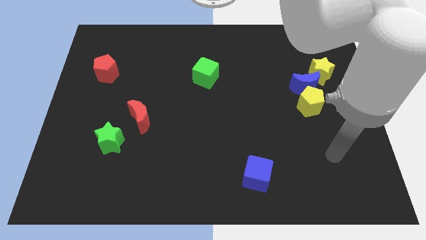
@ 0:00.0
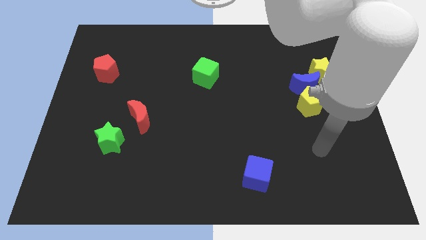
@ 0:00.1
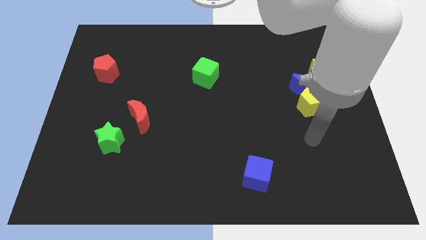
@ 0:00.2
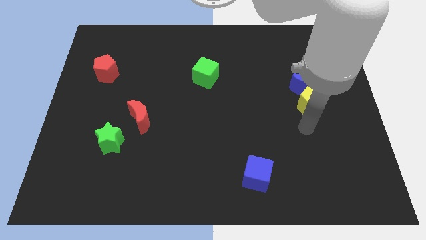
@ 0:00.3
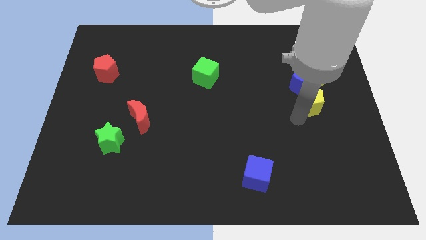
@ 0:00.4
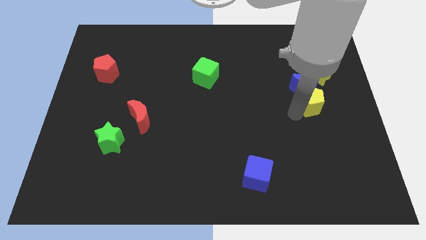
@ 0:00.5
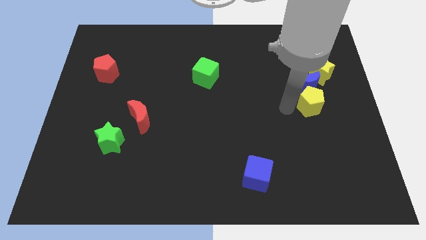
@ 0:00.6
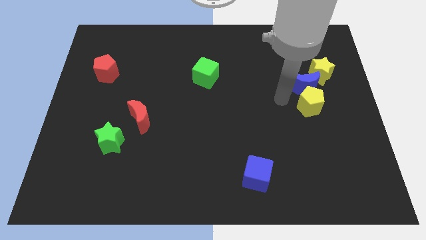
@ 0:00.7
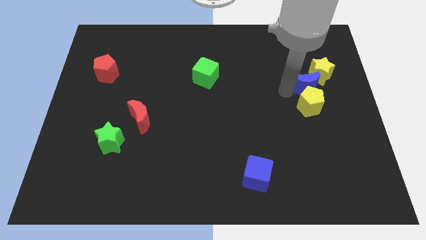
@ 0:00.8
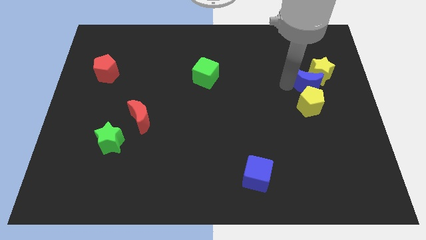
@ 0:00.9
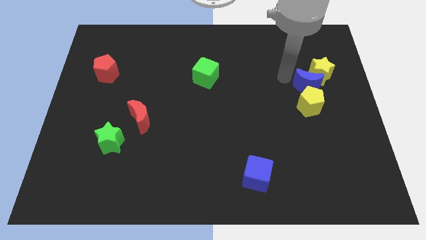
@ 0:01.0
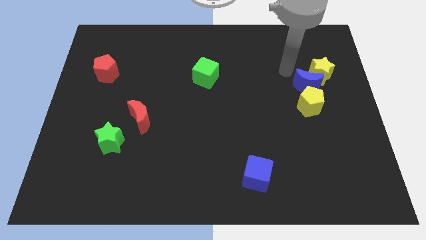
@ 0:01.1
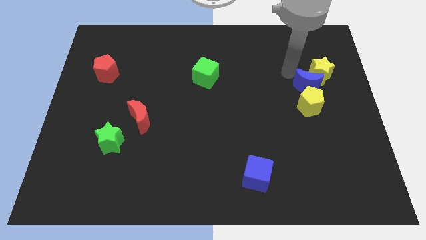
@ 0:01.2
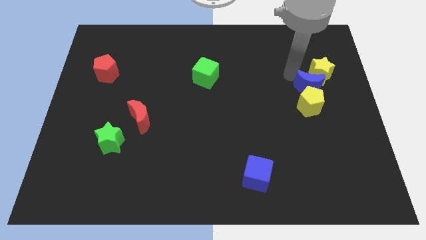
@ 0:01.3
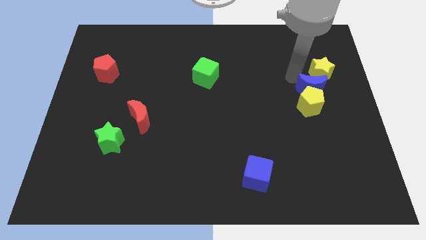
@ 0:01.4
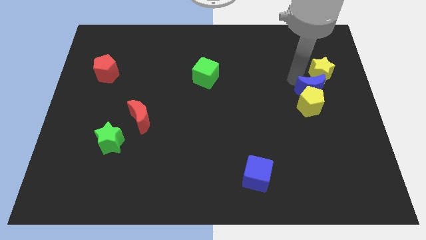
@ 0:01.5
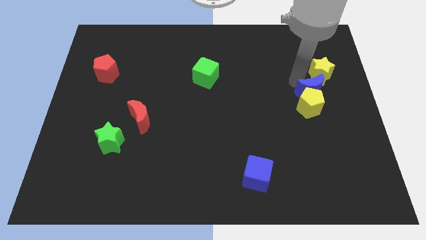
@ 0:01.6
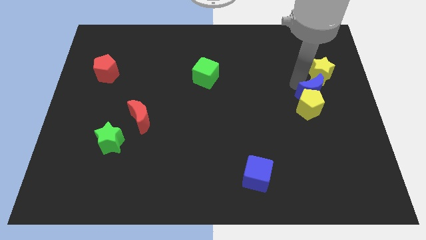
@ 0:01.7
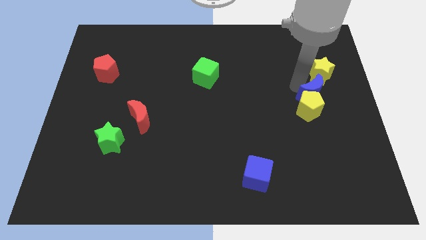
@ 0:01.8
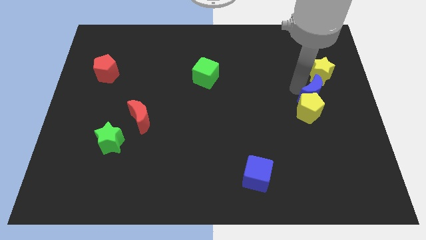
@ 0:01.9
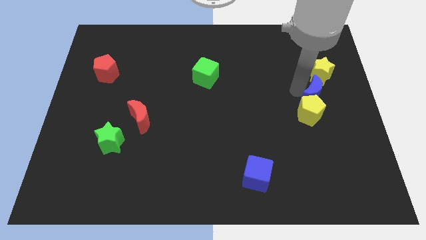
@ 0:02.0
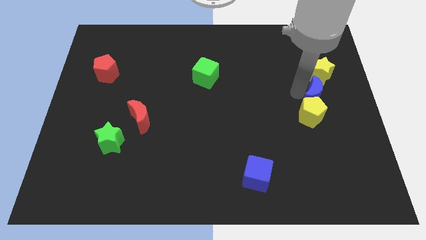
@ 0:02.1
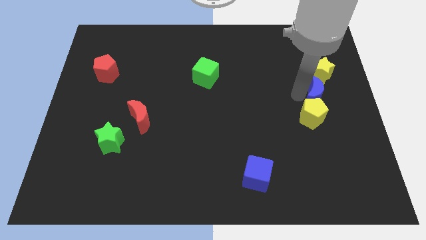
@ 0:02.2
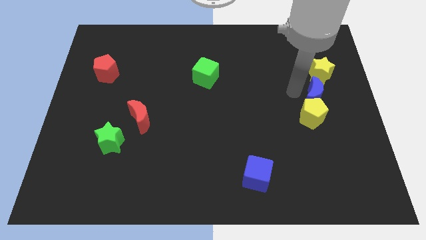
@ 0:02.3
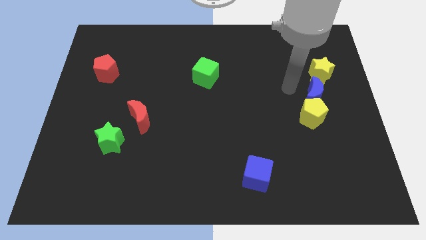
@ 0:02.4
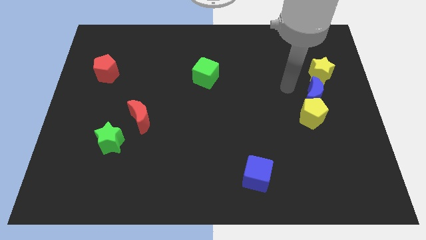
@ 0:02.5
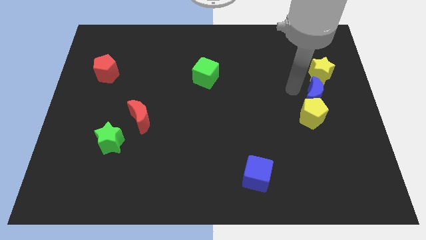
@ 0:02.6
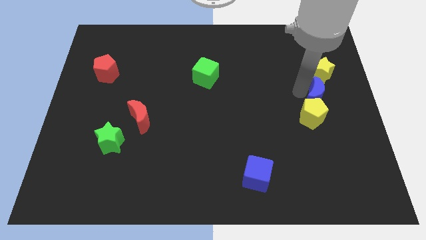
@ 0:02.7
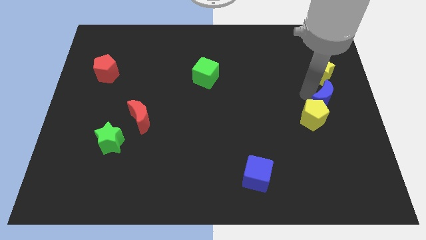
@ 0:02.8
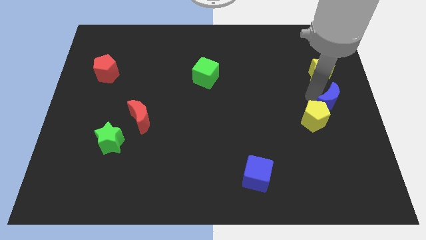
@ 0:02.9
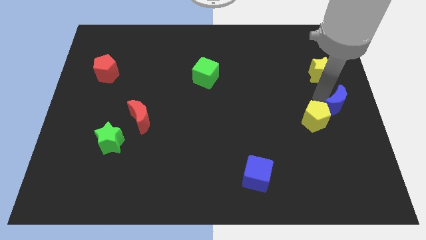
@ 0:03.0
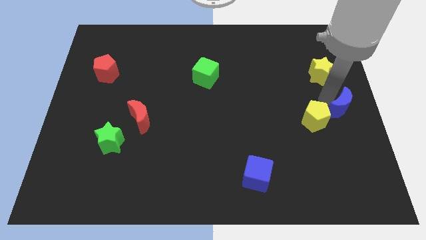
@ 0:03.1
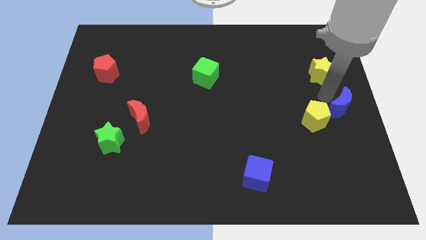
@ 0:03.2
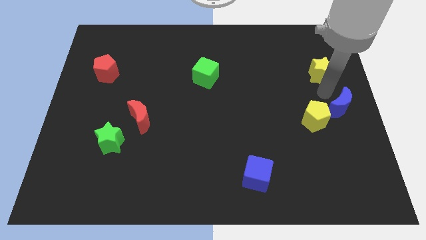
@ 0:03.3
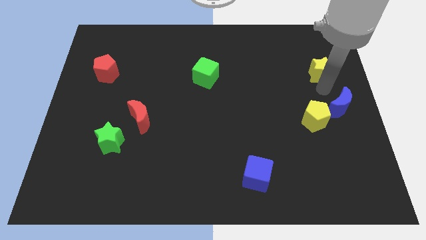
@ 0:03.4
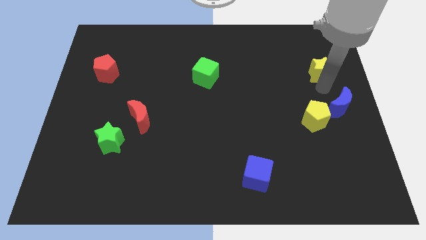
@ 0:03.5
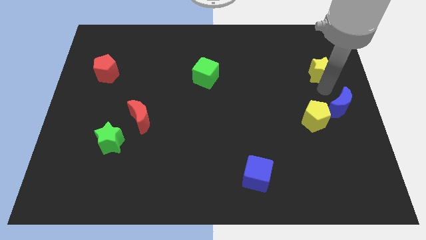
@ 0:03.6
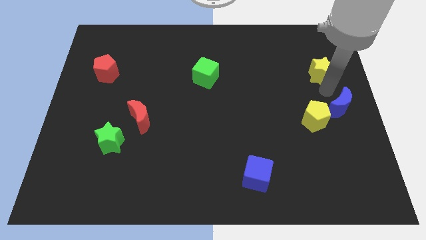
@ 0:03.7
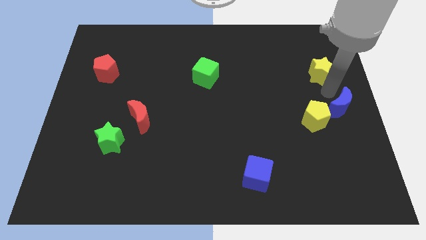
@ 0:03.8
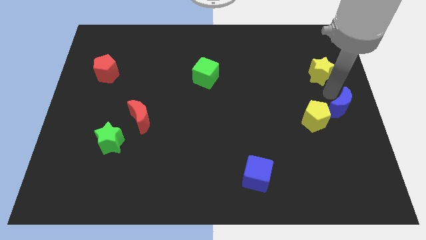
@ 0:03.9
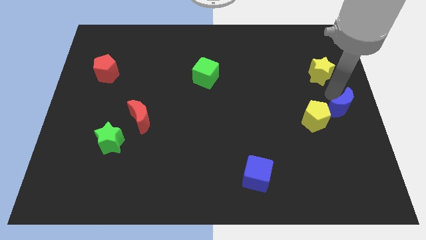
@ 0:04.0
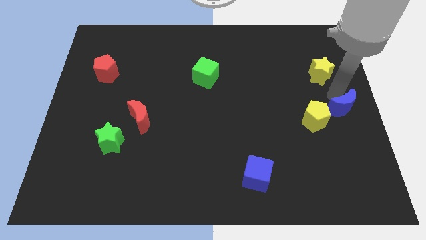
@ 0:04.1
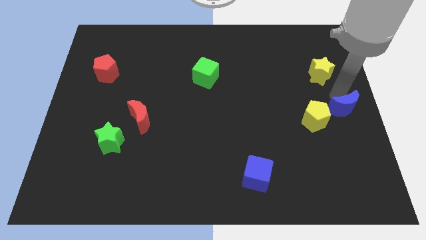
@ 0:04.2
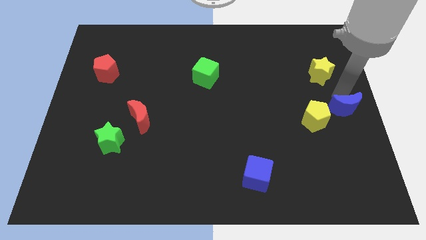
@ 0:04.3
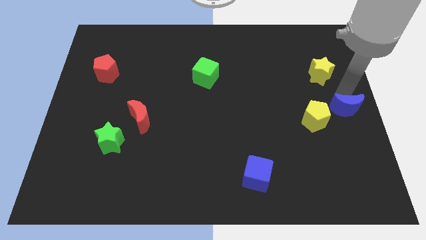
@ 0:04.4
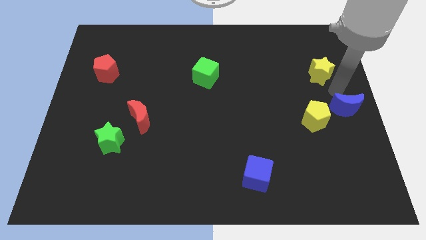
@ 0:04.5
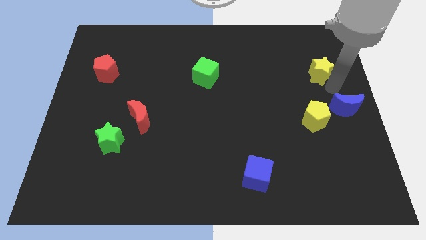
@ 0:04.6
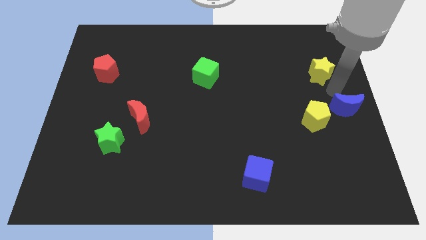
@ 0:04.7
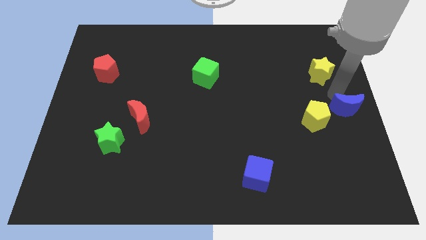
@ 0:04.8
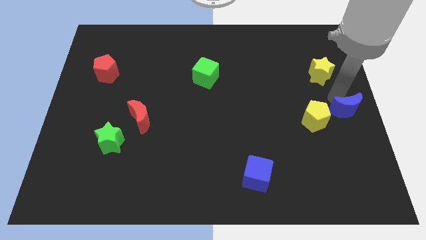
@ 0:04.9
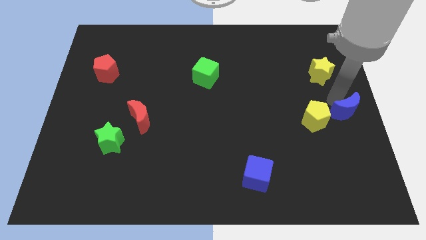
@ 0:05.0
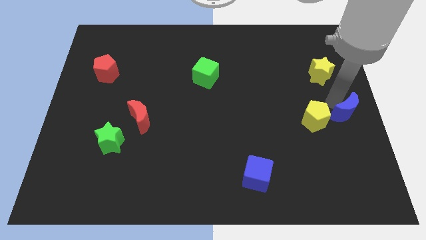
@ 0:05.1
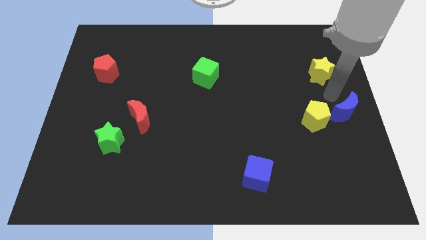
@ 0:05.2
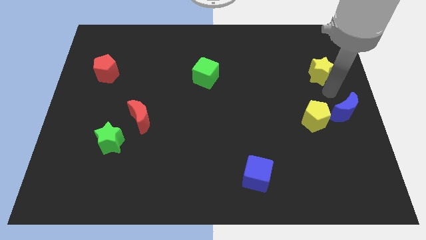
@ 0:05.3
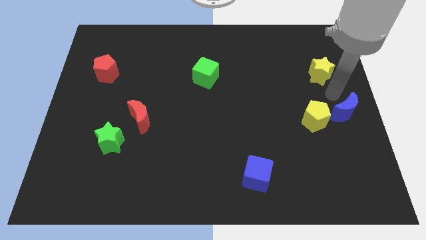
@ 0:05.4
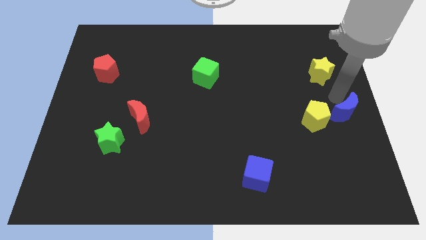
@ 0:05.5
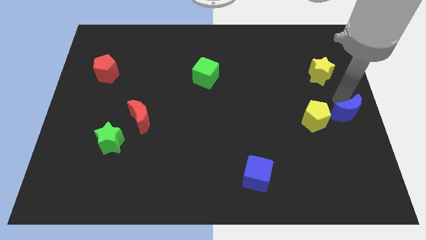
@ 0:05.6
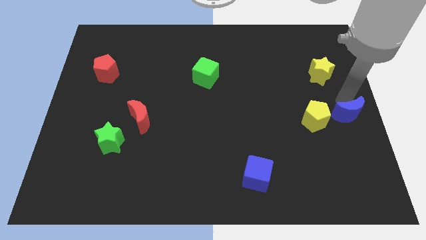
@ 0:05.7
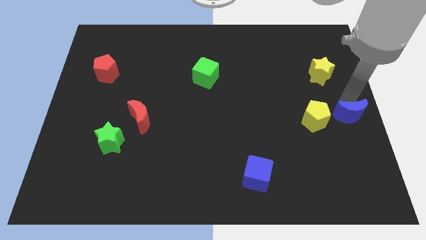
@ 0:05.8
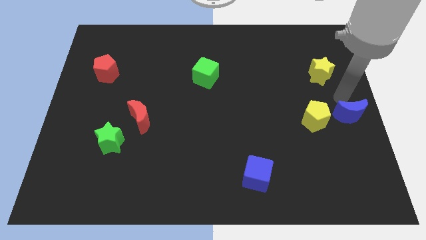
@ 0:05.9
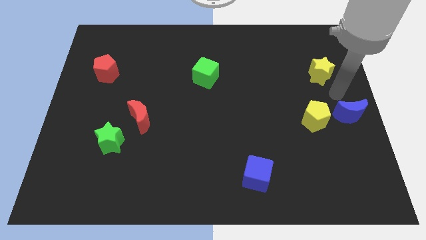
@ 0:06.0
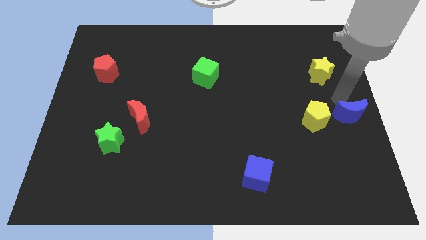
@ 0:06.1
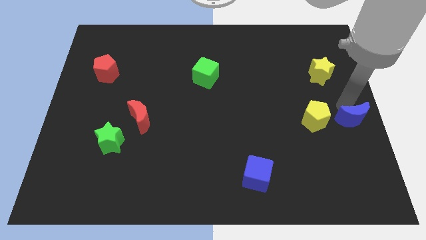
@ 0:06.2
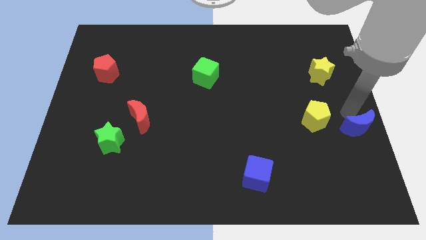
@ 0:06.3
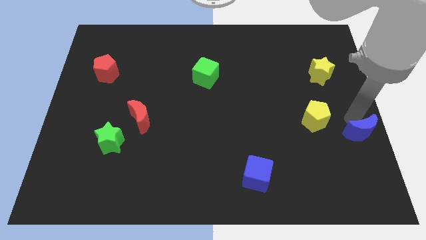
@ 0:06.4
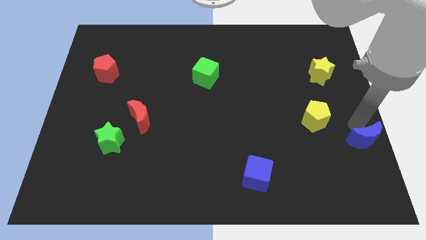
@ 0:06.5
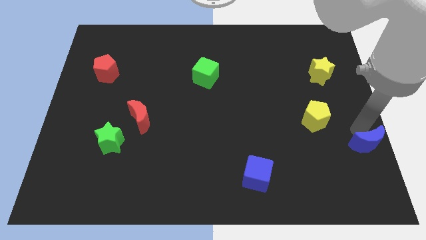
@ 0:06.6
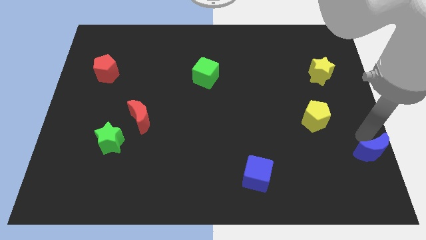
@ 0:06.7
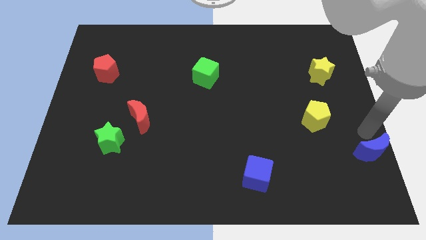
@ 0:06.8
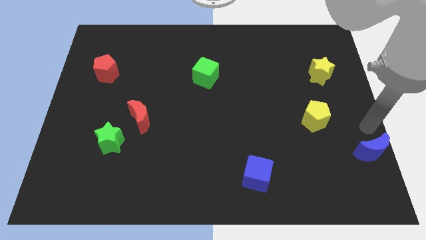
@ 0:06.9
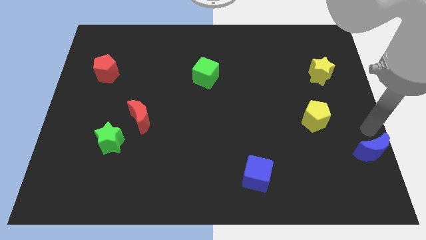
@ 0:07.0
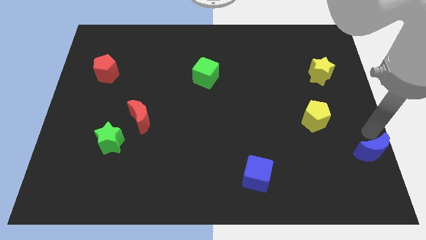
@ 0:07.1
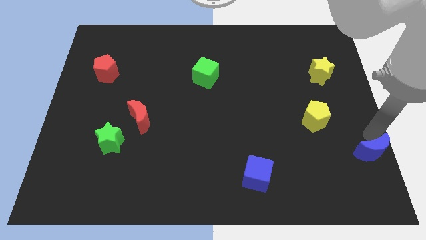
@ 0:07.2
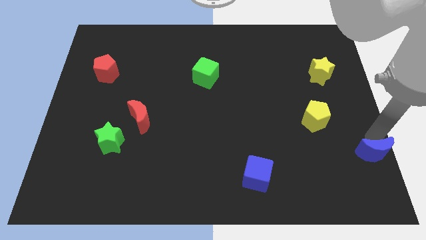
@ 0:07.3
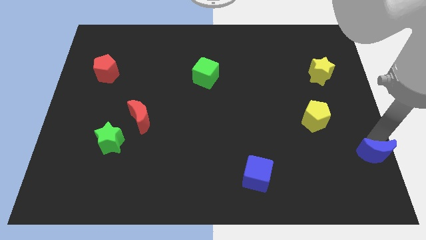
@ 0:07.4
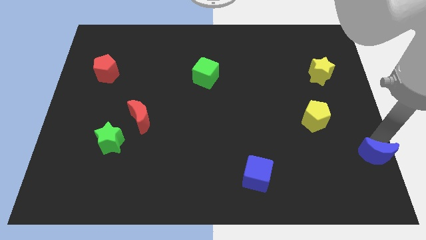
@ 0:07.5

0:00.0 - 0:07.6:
put the blue moon to the bottom right of the board
